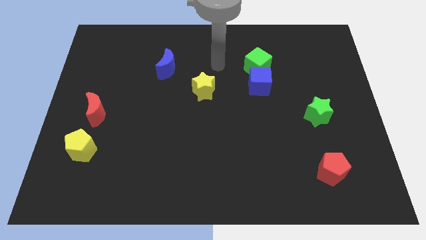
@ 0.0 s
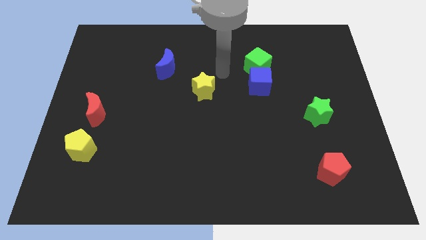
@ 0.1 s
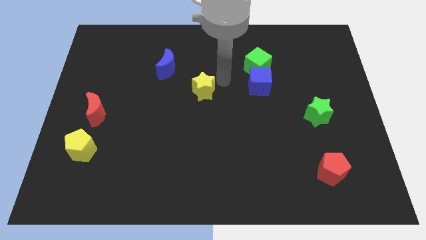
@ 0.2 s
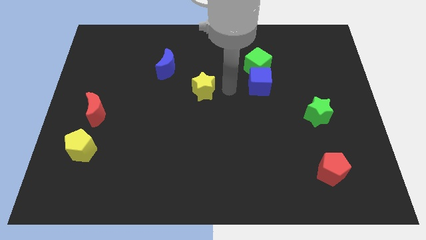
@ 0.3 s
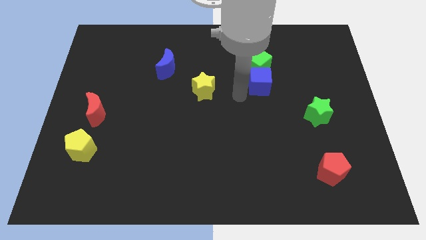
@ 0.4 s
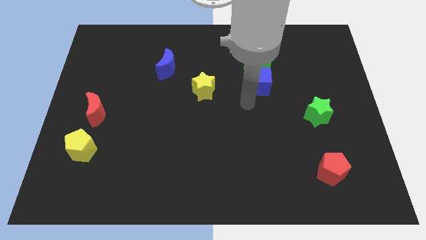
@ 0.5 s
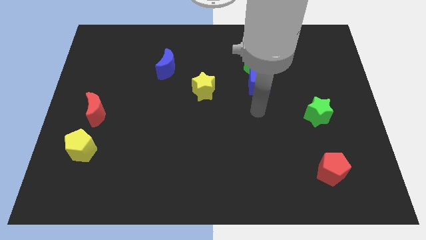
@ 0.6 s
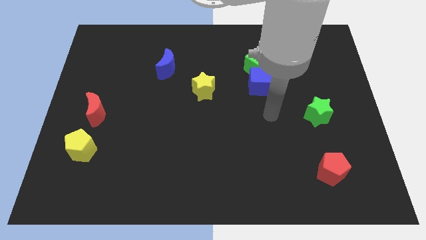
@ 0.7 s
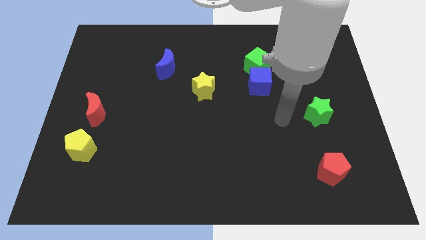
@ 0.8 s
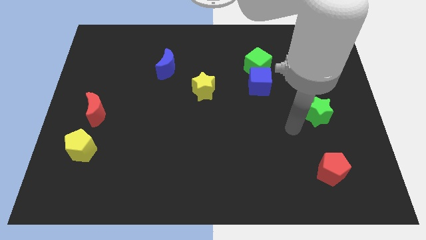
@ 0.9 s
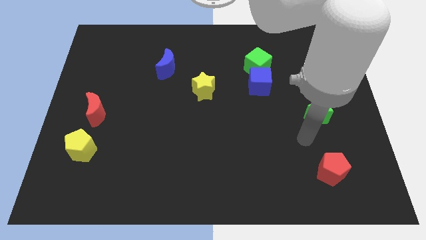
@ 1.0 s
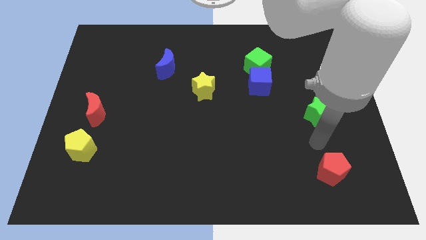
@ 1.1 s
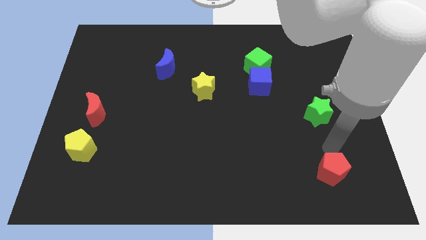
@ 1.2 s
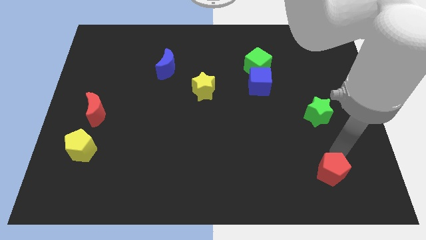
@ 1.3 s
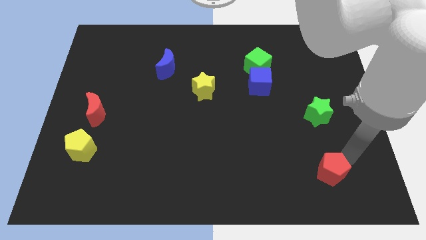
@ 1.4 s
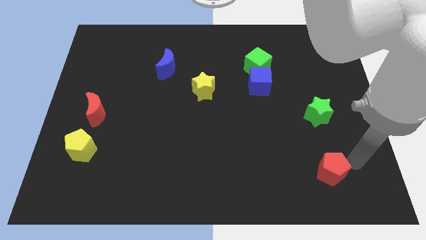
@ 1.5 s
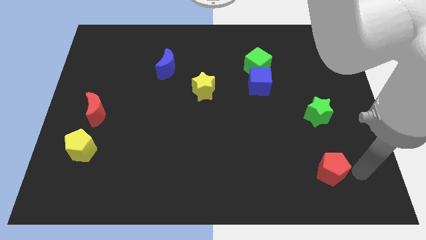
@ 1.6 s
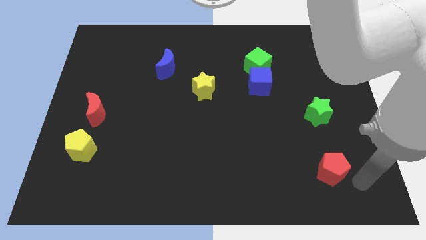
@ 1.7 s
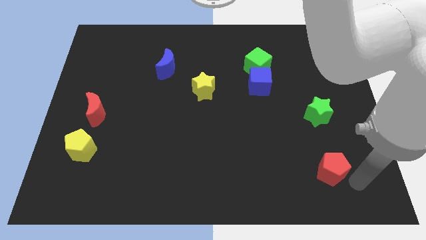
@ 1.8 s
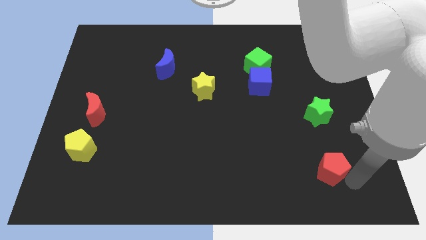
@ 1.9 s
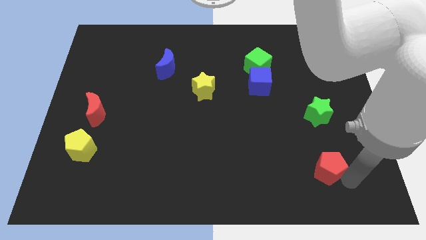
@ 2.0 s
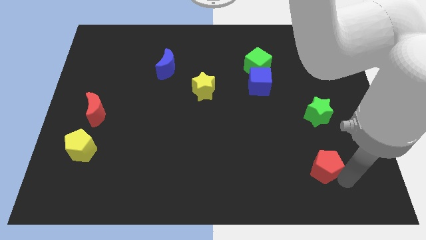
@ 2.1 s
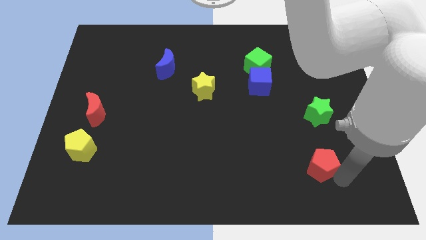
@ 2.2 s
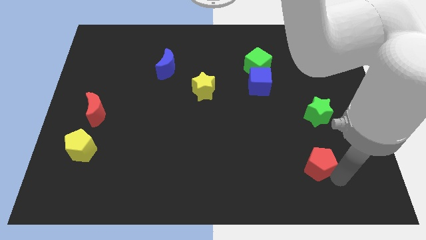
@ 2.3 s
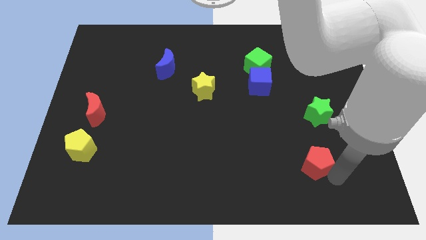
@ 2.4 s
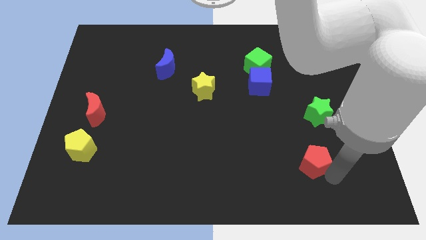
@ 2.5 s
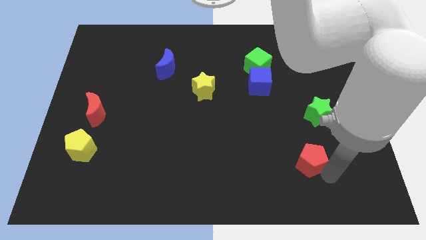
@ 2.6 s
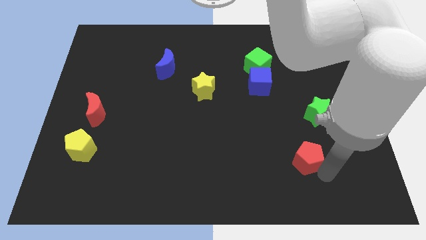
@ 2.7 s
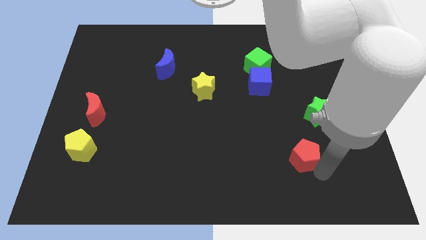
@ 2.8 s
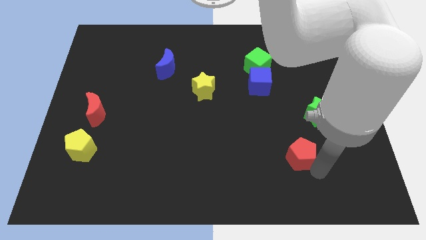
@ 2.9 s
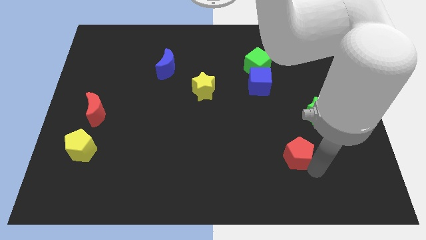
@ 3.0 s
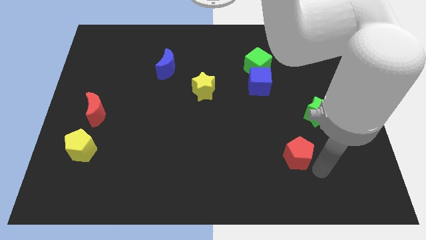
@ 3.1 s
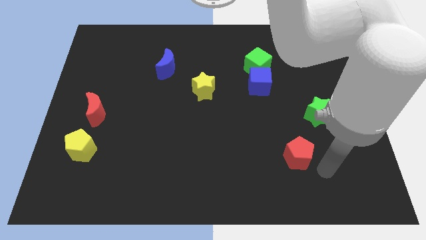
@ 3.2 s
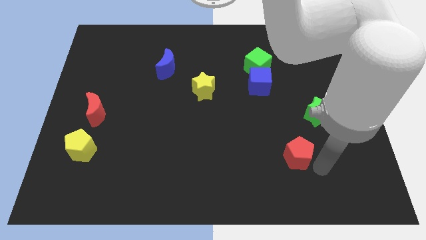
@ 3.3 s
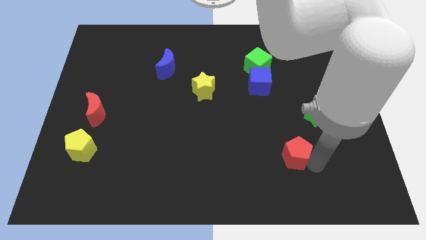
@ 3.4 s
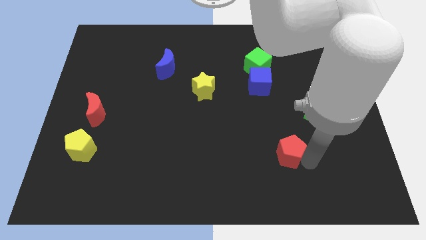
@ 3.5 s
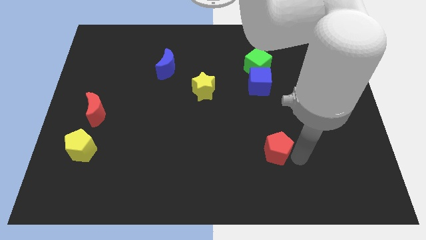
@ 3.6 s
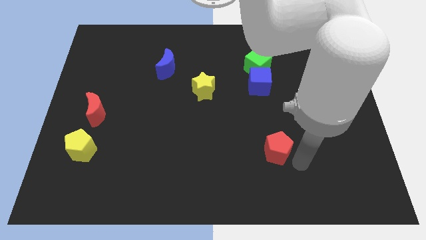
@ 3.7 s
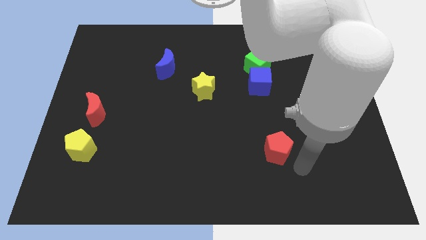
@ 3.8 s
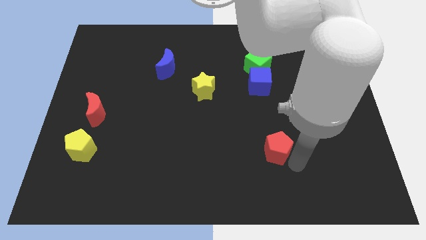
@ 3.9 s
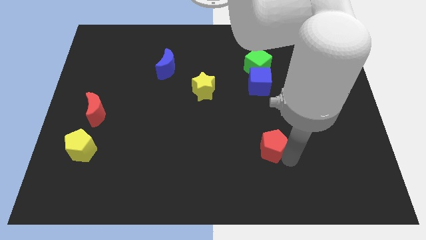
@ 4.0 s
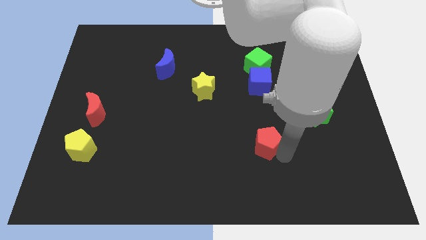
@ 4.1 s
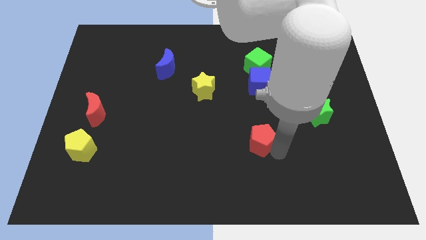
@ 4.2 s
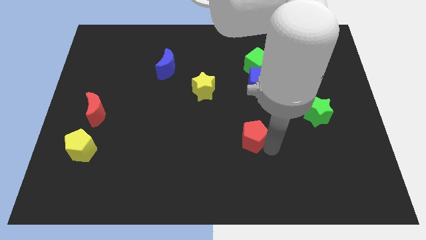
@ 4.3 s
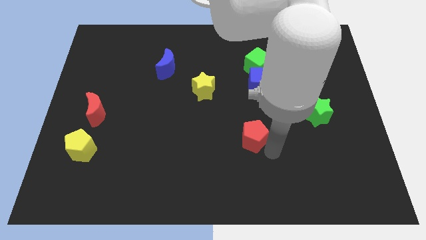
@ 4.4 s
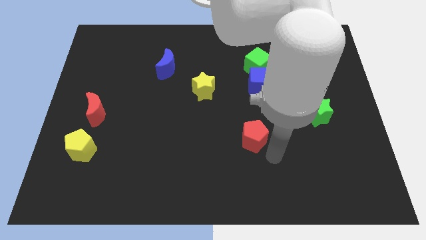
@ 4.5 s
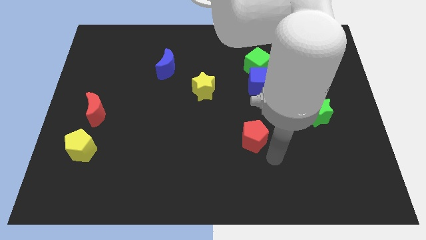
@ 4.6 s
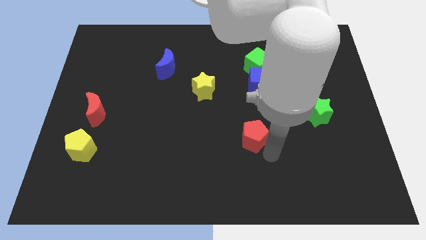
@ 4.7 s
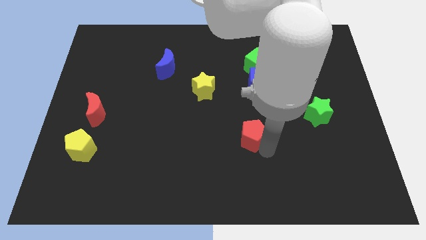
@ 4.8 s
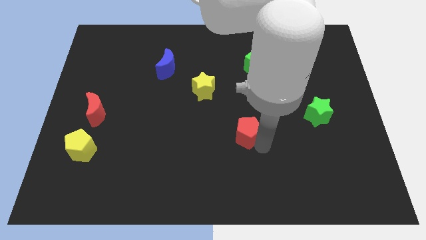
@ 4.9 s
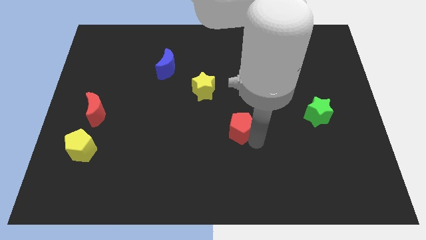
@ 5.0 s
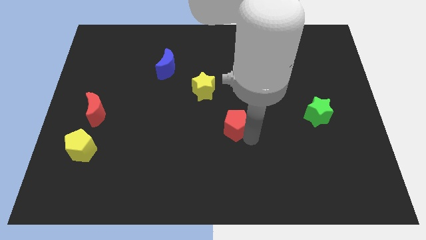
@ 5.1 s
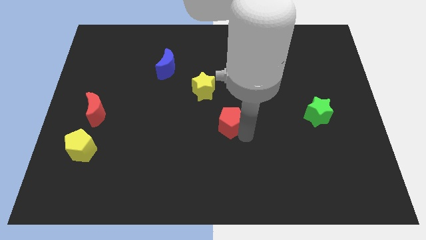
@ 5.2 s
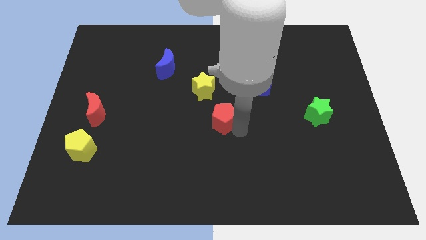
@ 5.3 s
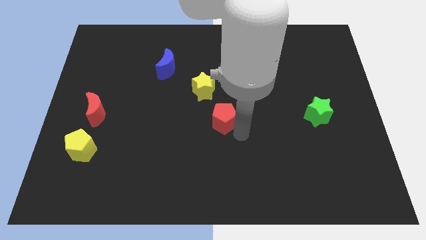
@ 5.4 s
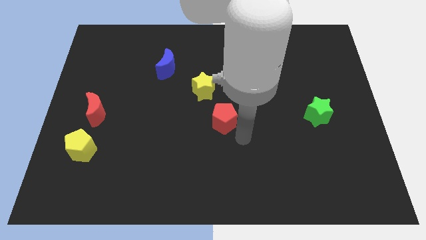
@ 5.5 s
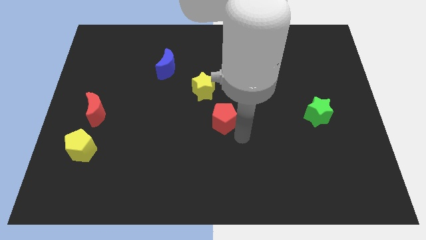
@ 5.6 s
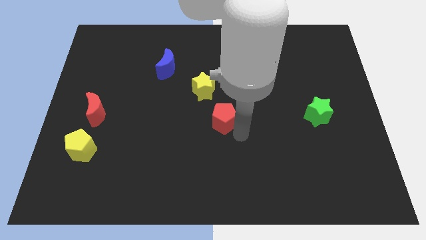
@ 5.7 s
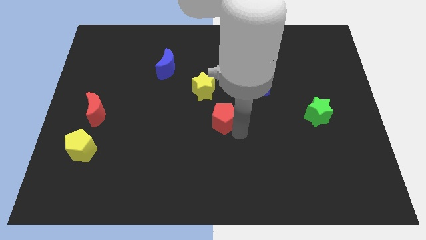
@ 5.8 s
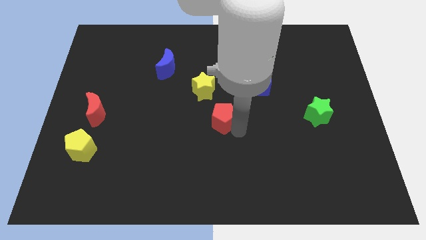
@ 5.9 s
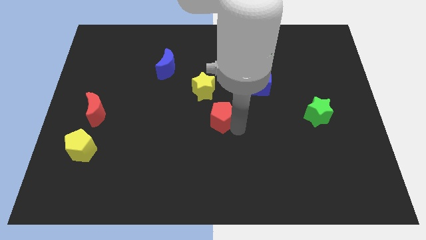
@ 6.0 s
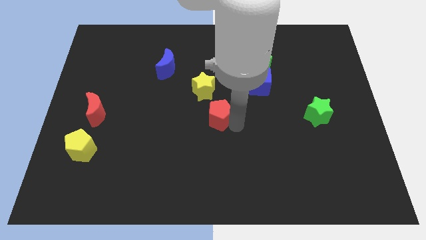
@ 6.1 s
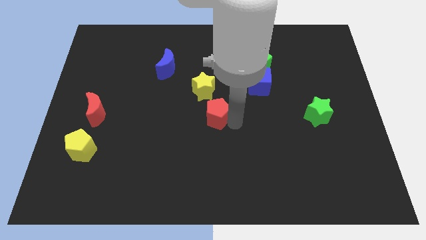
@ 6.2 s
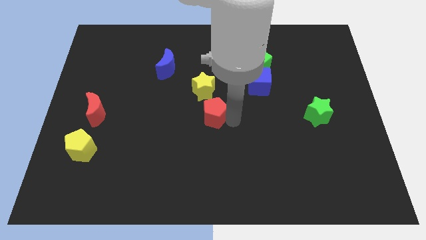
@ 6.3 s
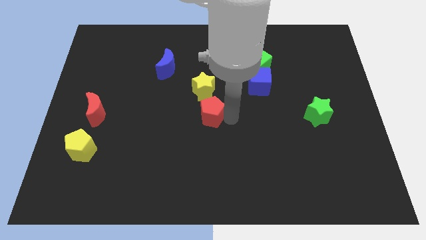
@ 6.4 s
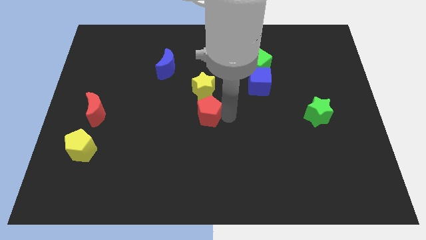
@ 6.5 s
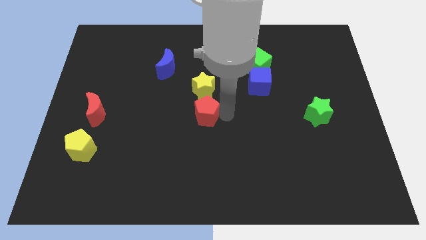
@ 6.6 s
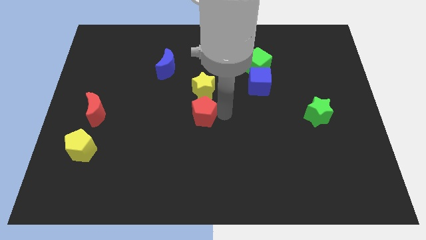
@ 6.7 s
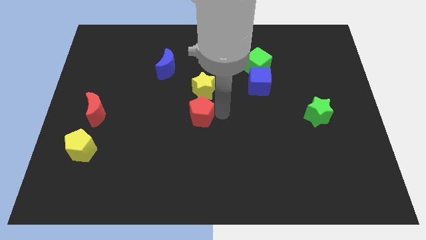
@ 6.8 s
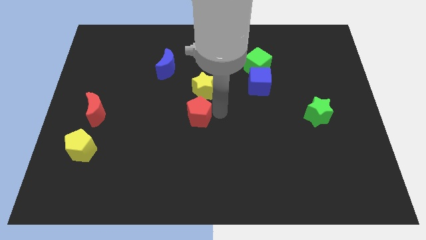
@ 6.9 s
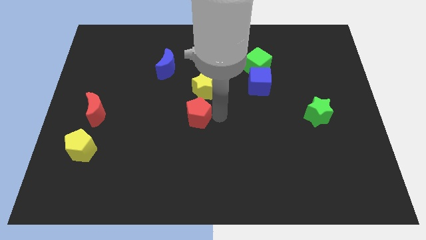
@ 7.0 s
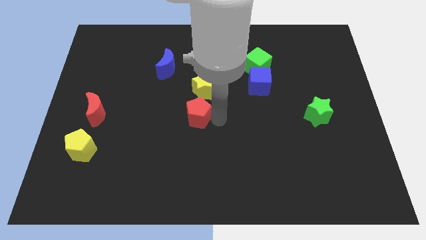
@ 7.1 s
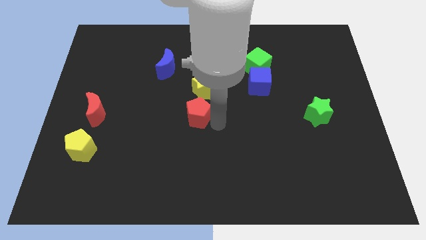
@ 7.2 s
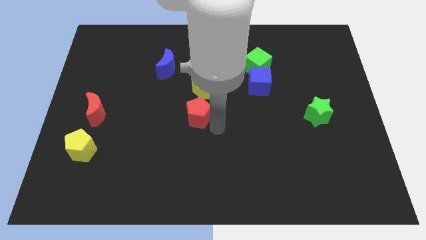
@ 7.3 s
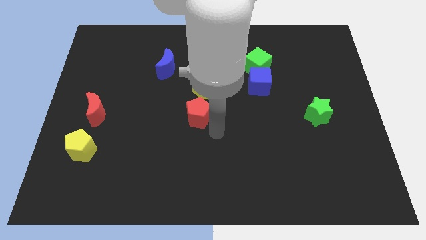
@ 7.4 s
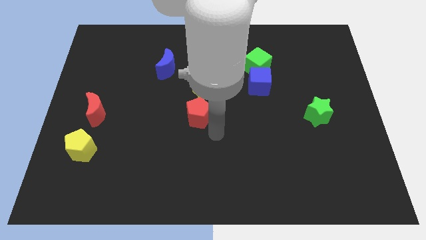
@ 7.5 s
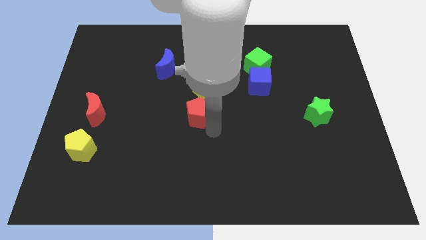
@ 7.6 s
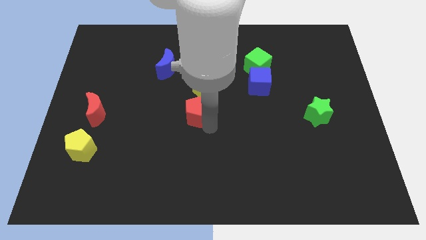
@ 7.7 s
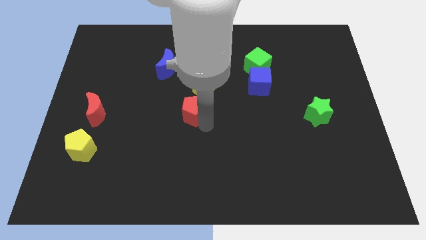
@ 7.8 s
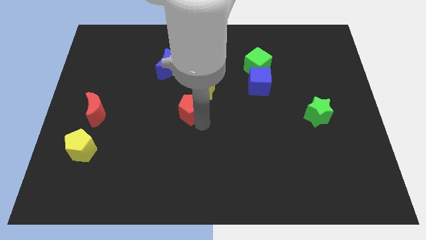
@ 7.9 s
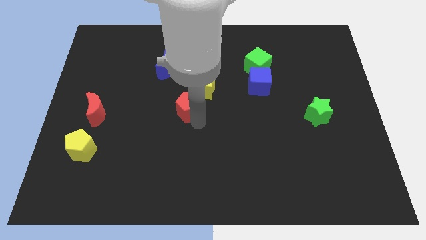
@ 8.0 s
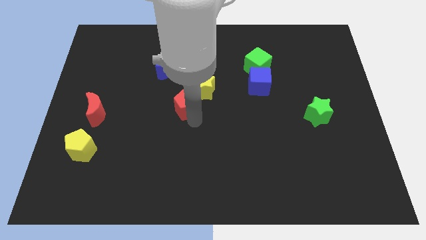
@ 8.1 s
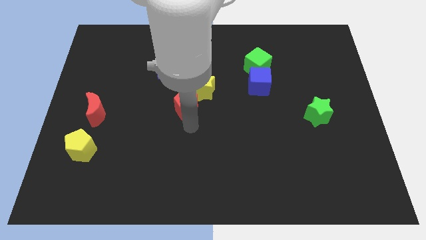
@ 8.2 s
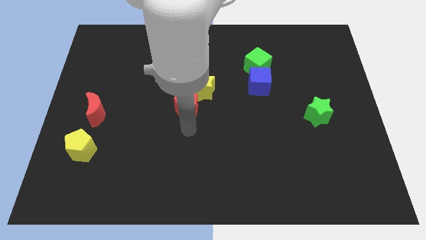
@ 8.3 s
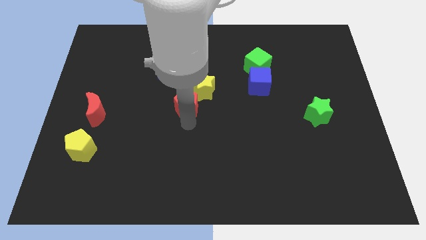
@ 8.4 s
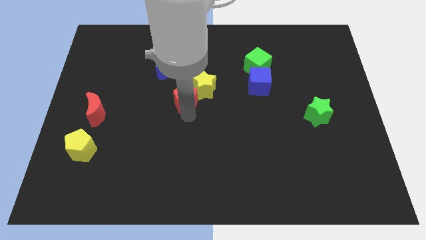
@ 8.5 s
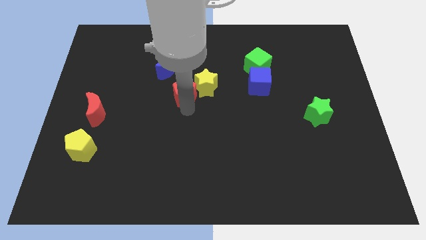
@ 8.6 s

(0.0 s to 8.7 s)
slide the red pentagon diagonally down and to the right of the blue moon
